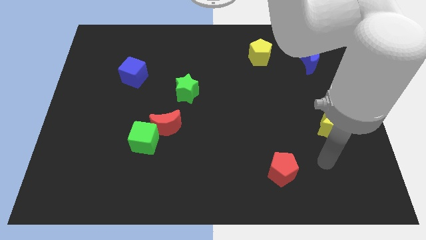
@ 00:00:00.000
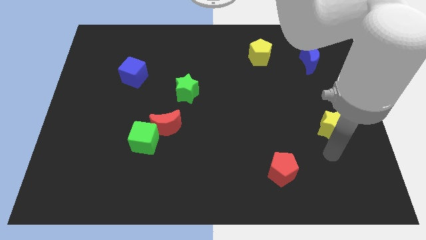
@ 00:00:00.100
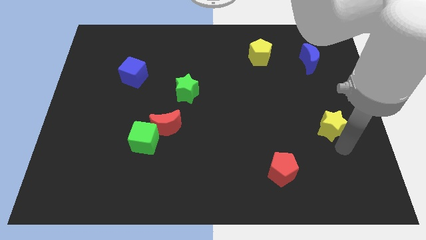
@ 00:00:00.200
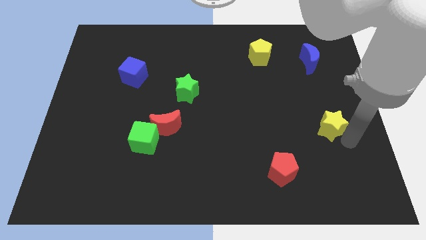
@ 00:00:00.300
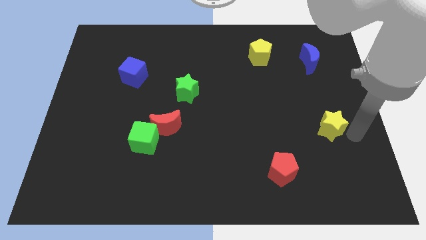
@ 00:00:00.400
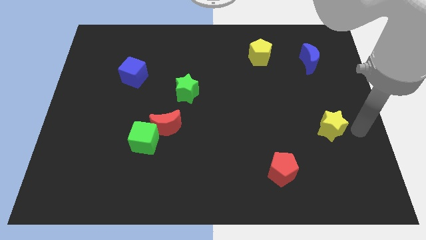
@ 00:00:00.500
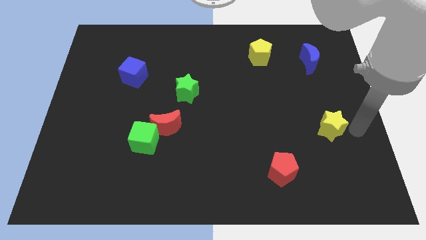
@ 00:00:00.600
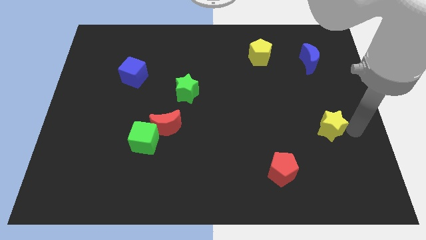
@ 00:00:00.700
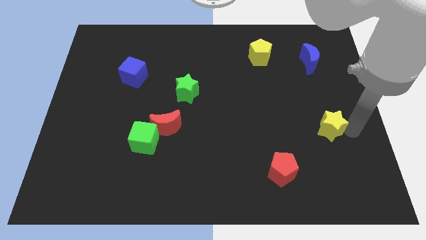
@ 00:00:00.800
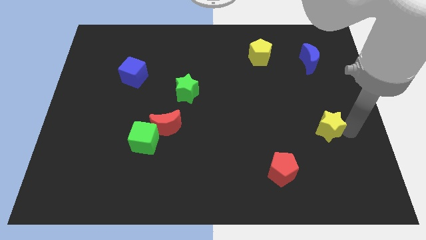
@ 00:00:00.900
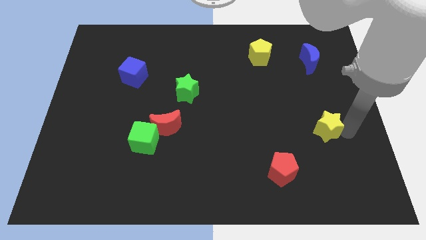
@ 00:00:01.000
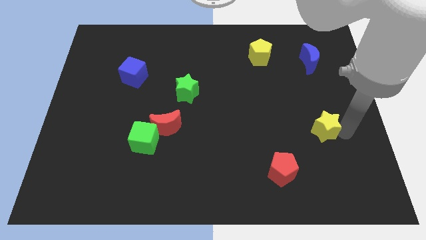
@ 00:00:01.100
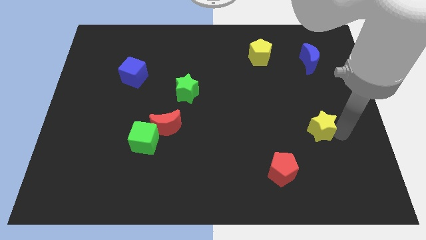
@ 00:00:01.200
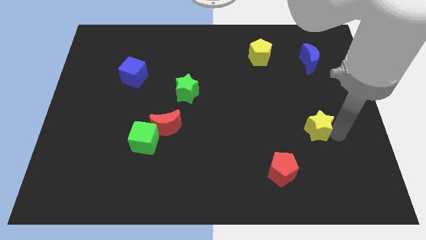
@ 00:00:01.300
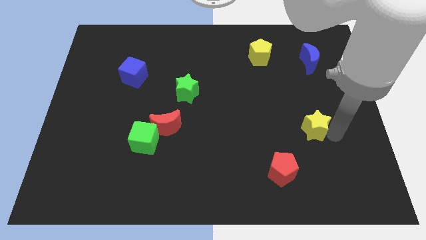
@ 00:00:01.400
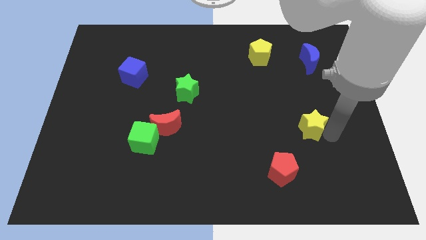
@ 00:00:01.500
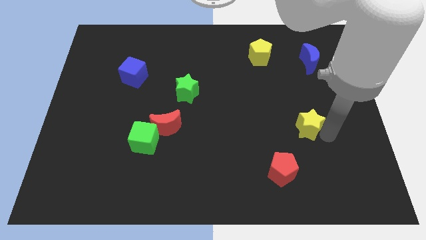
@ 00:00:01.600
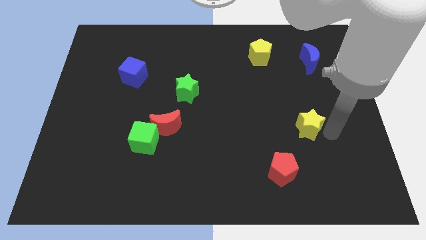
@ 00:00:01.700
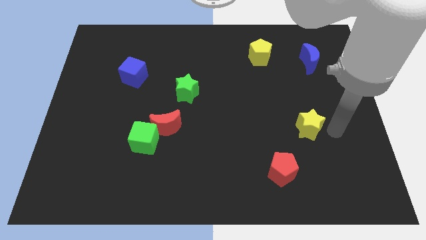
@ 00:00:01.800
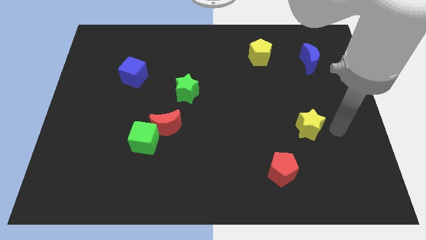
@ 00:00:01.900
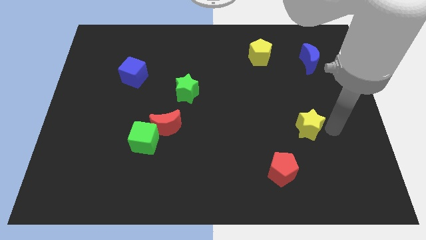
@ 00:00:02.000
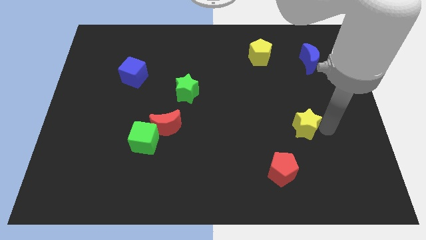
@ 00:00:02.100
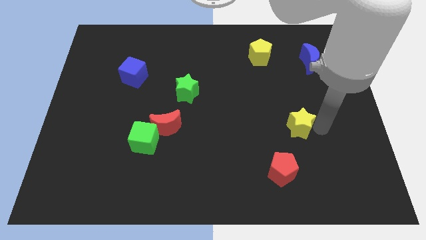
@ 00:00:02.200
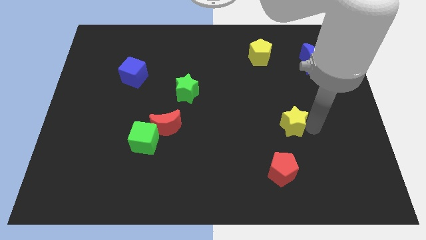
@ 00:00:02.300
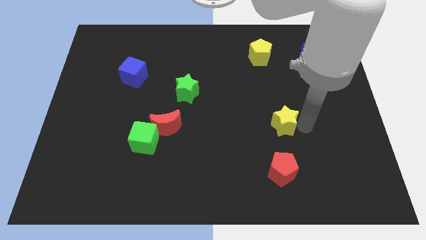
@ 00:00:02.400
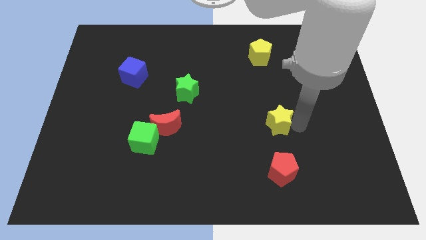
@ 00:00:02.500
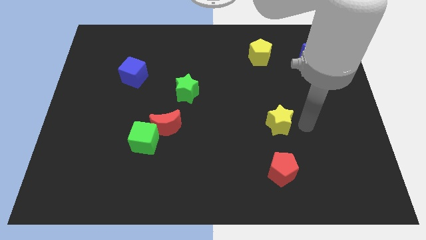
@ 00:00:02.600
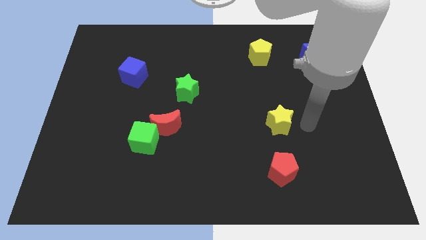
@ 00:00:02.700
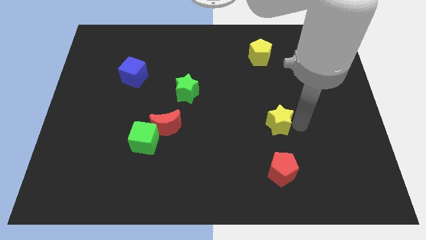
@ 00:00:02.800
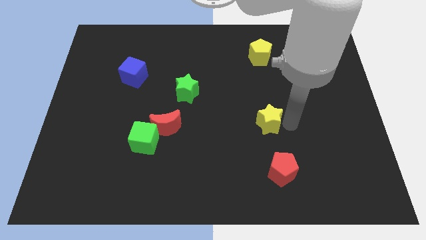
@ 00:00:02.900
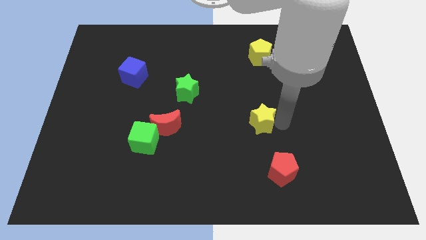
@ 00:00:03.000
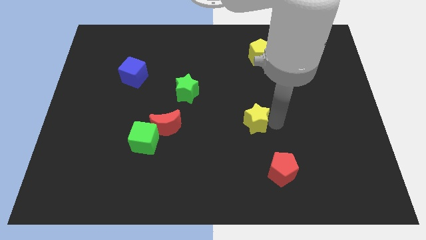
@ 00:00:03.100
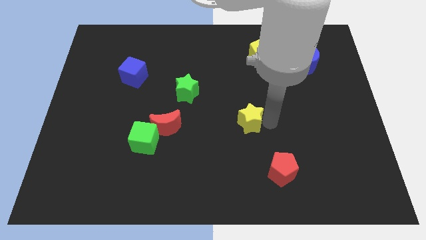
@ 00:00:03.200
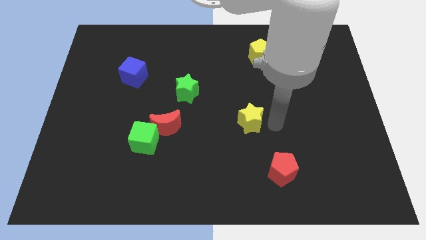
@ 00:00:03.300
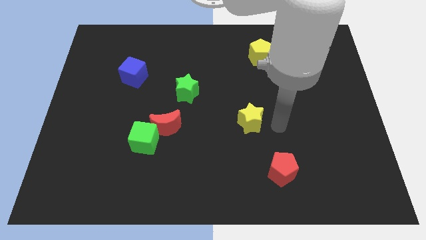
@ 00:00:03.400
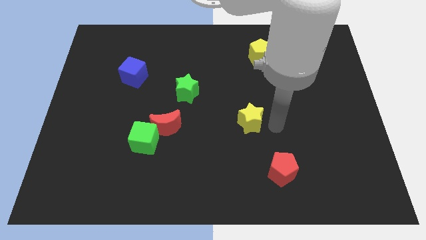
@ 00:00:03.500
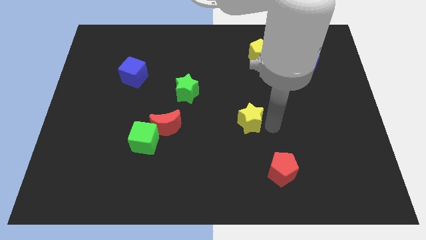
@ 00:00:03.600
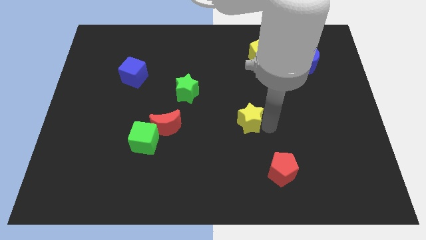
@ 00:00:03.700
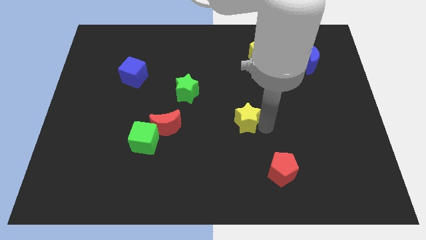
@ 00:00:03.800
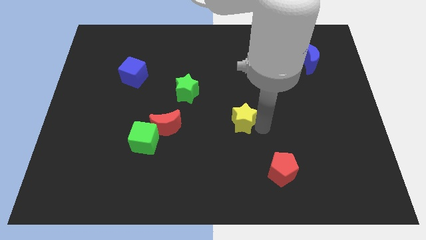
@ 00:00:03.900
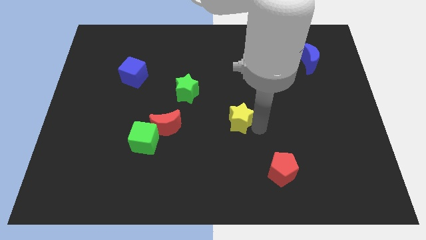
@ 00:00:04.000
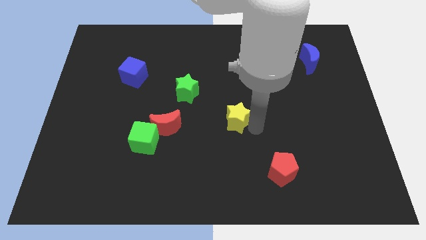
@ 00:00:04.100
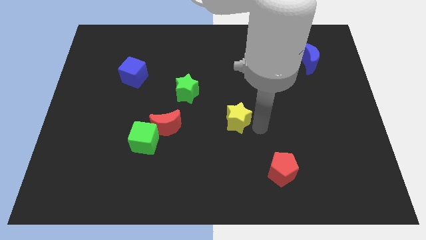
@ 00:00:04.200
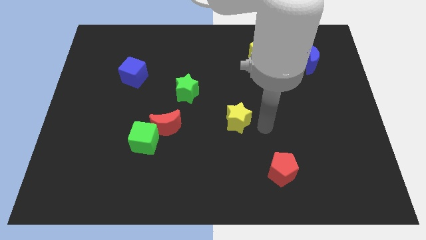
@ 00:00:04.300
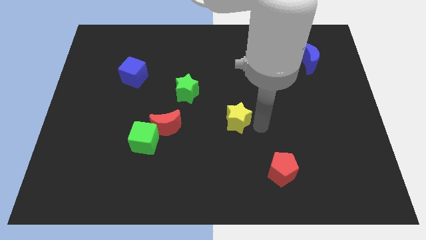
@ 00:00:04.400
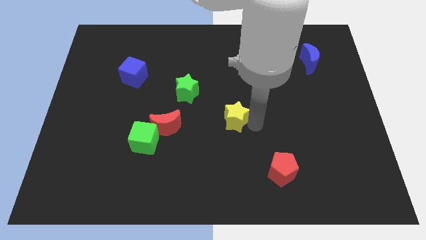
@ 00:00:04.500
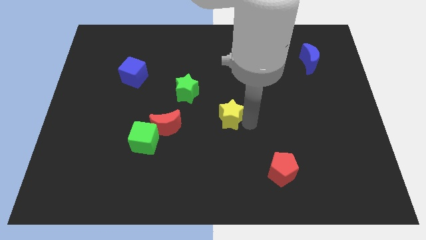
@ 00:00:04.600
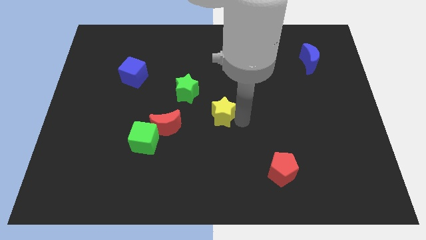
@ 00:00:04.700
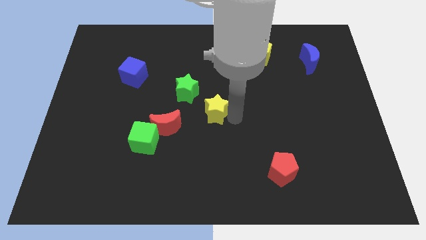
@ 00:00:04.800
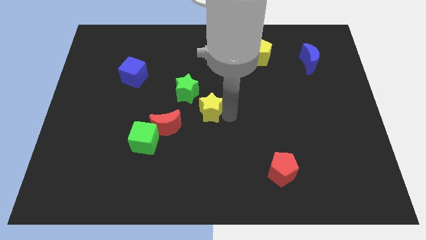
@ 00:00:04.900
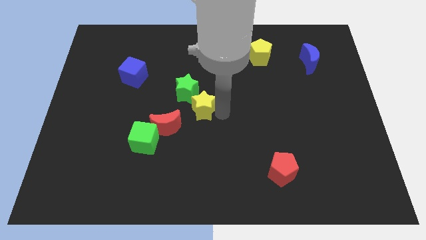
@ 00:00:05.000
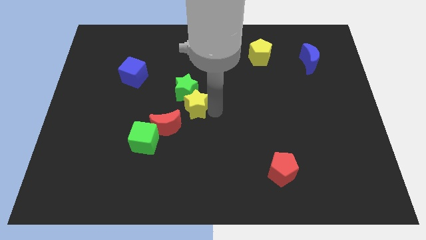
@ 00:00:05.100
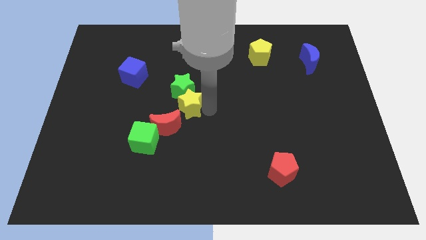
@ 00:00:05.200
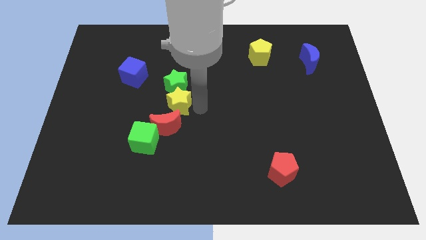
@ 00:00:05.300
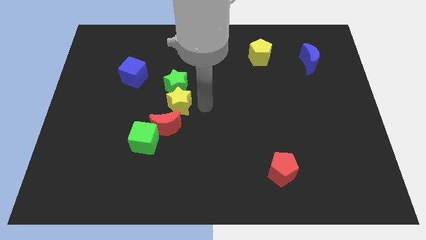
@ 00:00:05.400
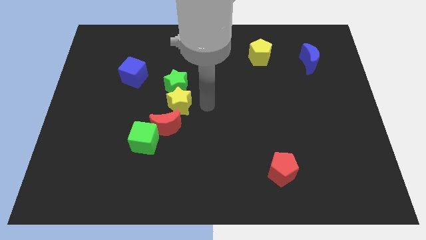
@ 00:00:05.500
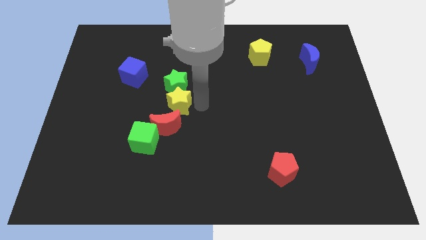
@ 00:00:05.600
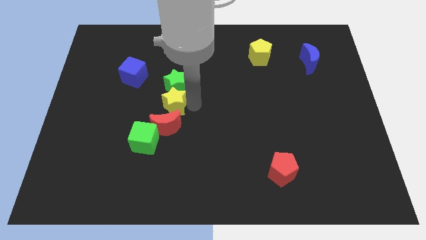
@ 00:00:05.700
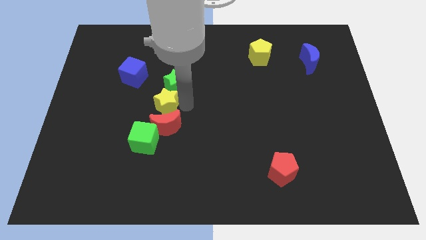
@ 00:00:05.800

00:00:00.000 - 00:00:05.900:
put the yellow star to the top of the green cube

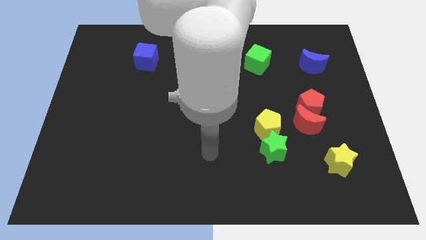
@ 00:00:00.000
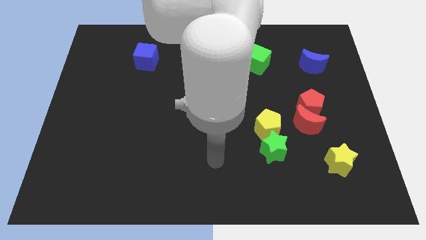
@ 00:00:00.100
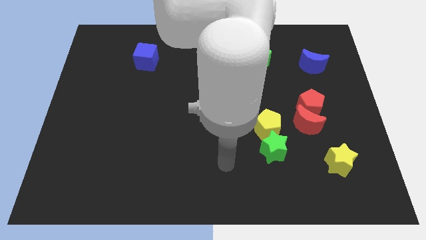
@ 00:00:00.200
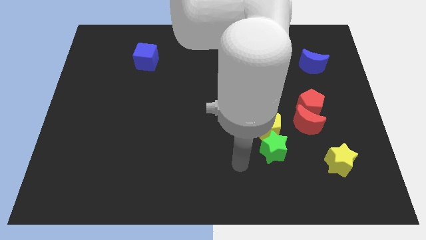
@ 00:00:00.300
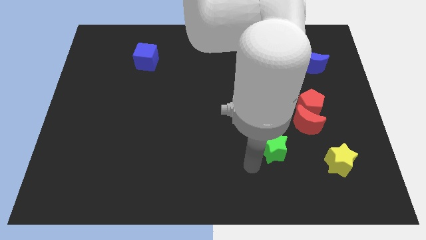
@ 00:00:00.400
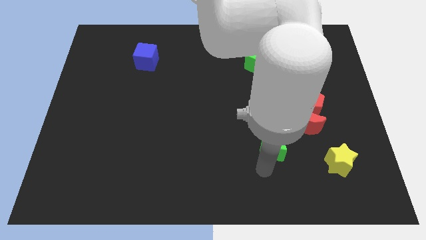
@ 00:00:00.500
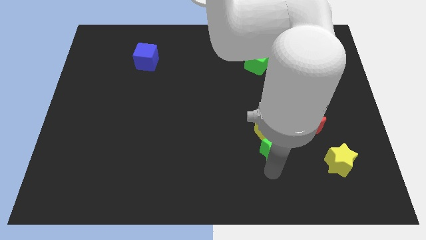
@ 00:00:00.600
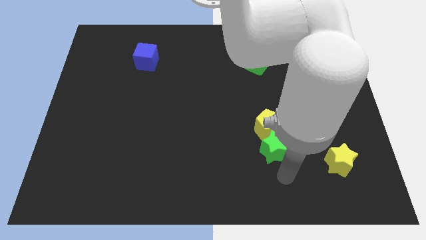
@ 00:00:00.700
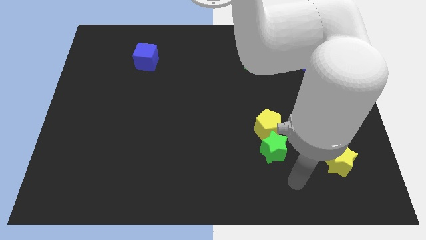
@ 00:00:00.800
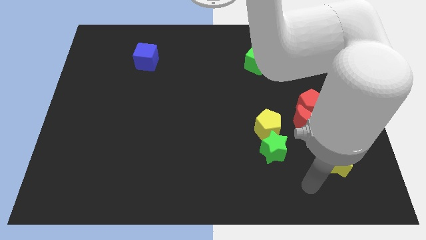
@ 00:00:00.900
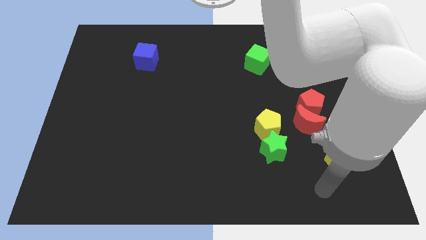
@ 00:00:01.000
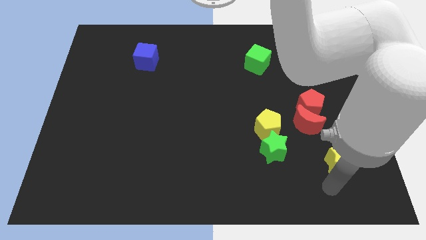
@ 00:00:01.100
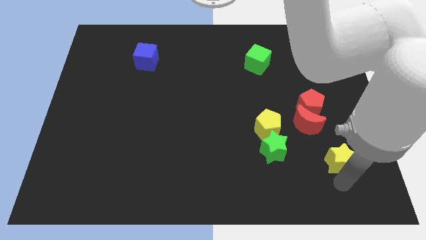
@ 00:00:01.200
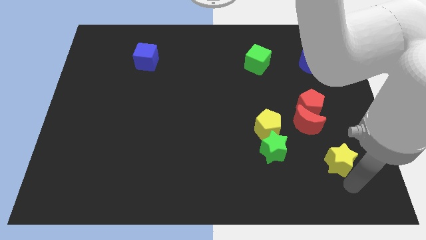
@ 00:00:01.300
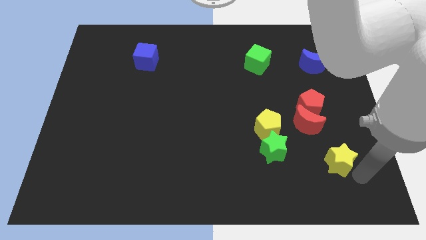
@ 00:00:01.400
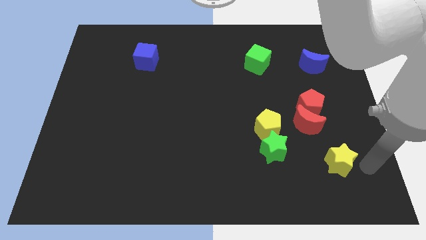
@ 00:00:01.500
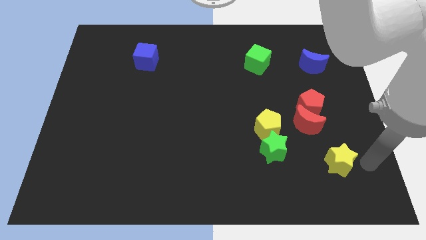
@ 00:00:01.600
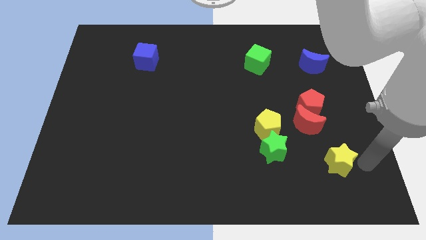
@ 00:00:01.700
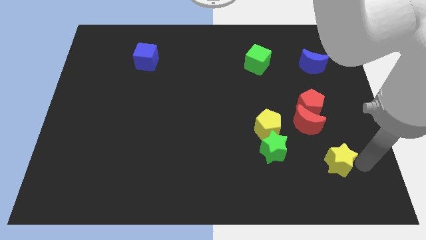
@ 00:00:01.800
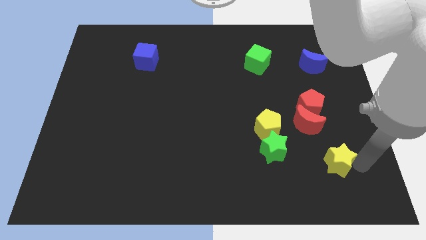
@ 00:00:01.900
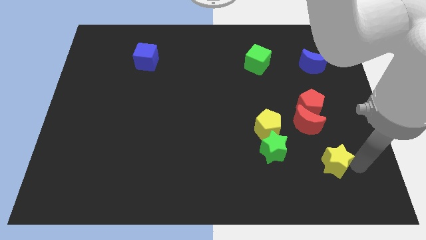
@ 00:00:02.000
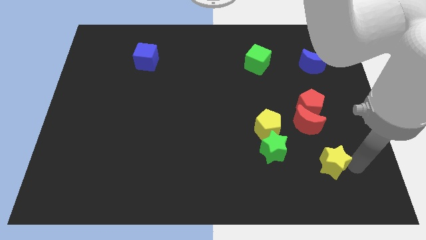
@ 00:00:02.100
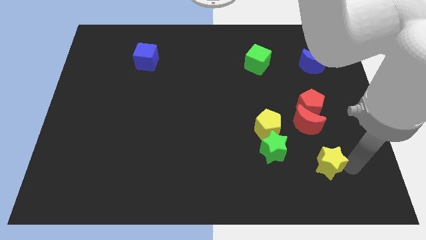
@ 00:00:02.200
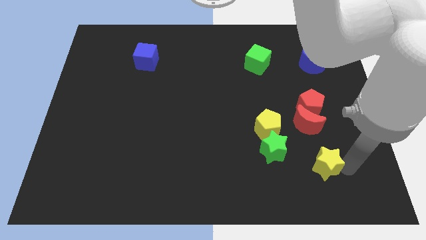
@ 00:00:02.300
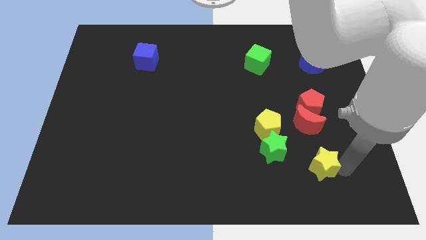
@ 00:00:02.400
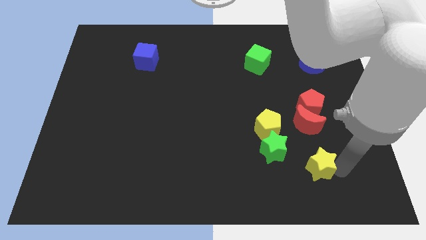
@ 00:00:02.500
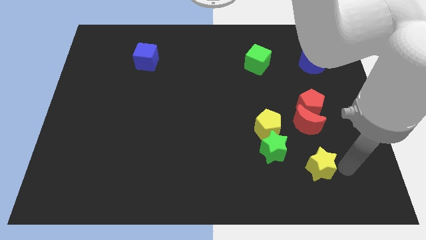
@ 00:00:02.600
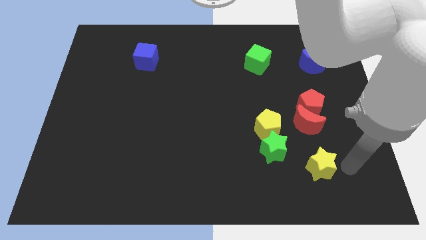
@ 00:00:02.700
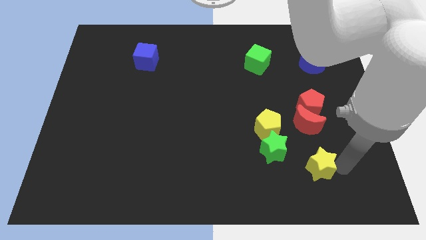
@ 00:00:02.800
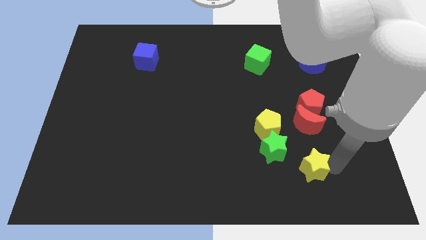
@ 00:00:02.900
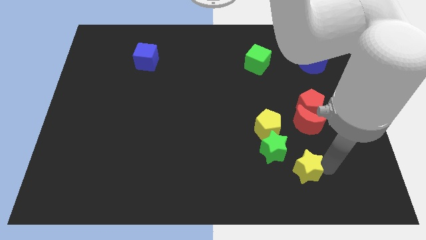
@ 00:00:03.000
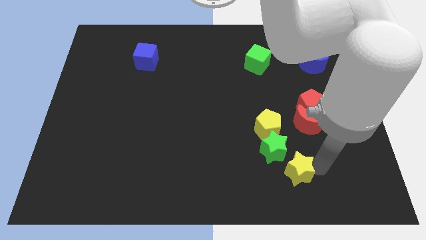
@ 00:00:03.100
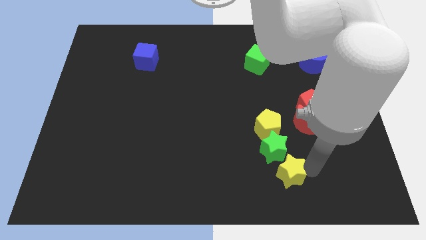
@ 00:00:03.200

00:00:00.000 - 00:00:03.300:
push the yellow star to the bottom of the yellow pentagon
